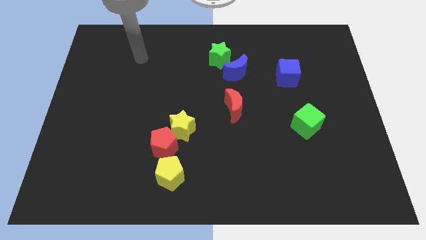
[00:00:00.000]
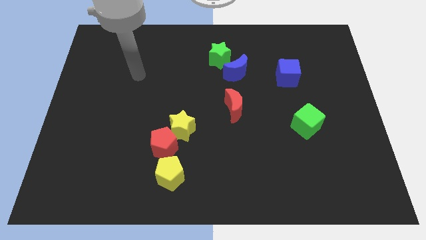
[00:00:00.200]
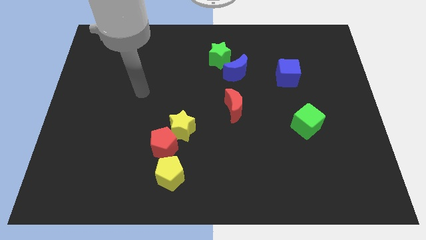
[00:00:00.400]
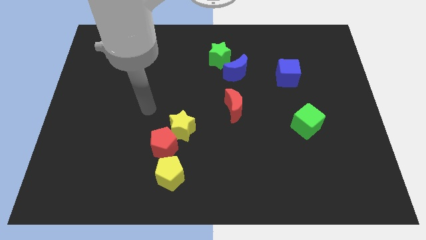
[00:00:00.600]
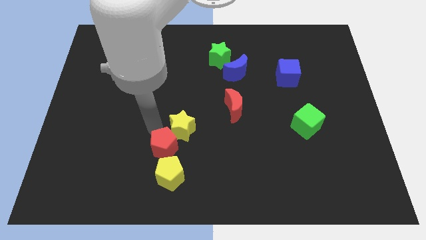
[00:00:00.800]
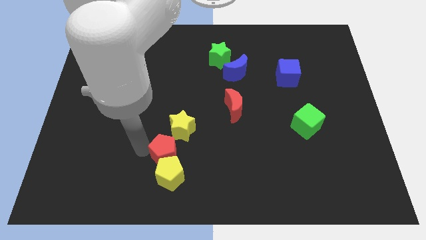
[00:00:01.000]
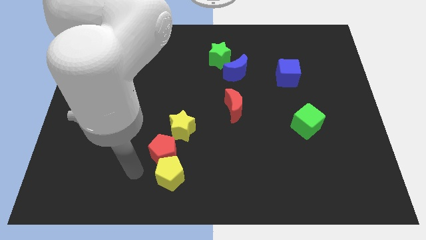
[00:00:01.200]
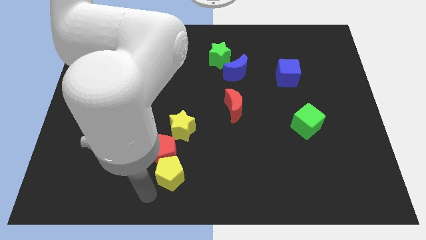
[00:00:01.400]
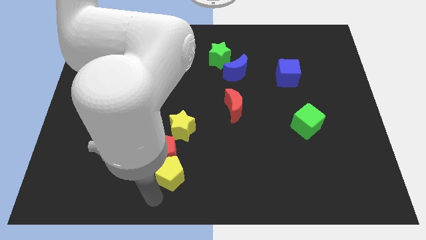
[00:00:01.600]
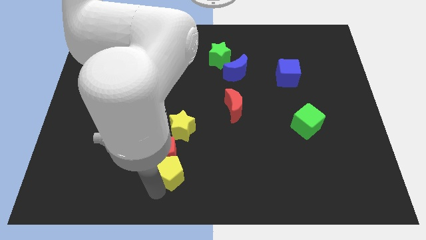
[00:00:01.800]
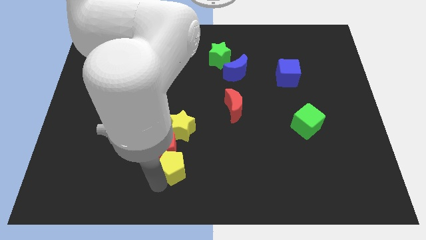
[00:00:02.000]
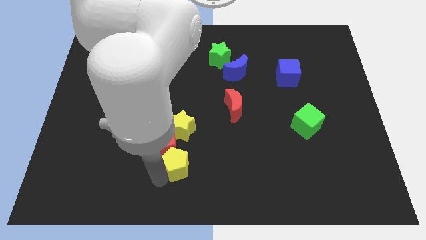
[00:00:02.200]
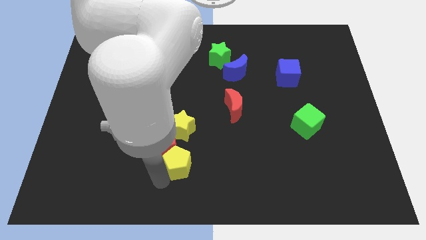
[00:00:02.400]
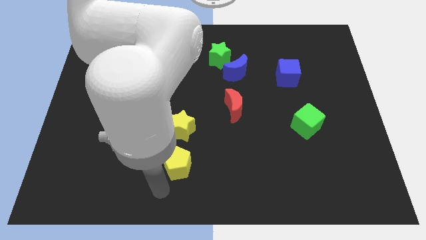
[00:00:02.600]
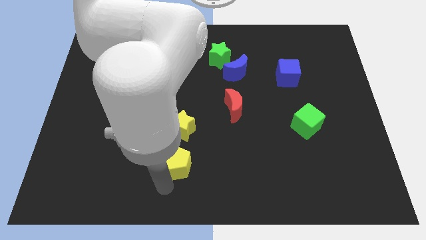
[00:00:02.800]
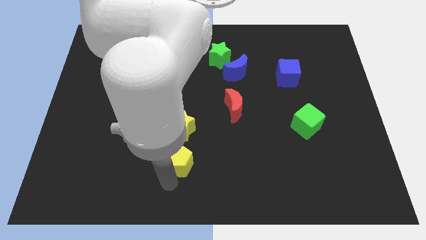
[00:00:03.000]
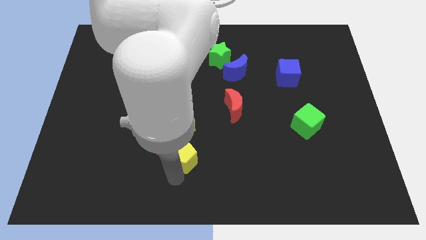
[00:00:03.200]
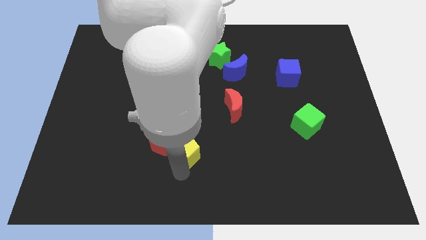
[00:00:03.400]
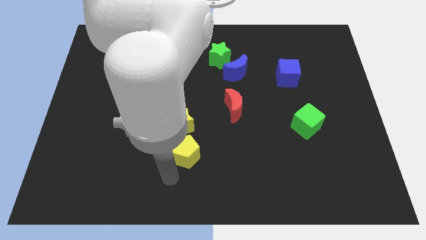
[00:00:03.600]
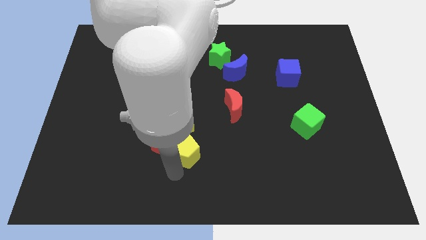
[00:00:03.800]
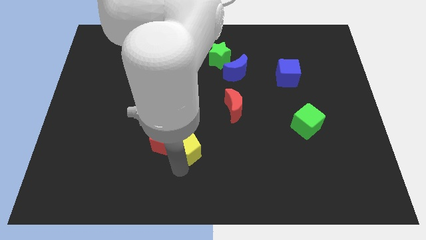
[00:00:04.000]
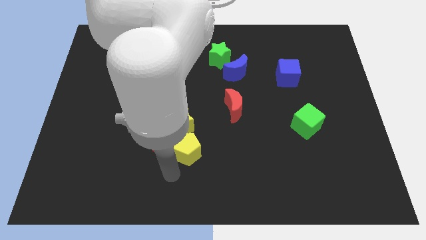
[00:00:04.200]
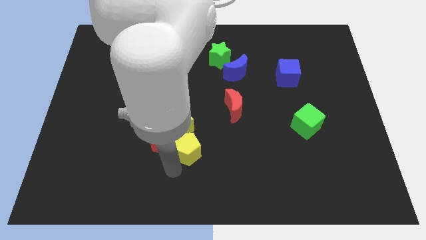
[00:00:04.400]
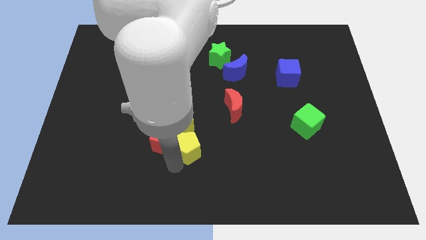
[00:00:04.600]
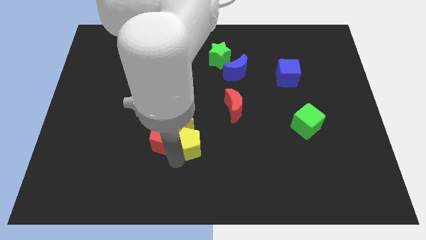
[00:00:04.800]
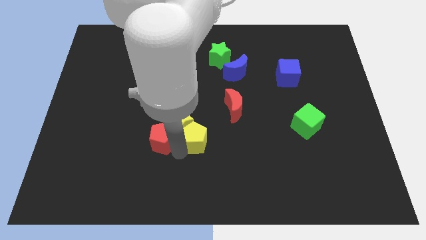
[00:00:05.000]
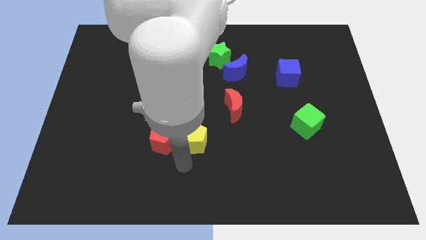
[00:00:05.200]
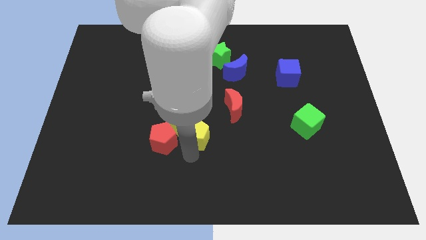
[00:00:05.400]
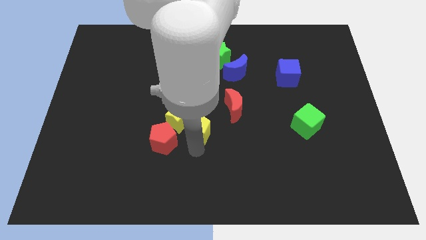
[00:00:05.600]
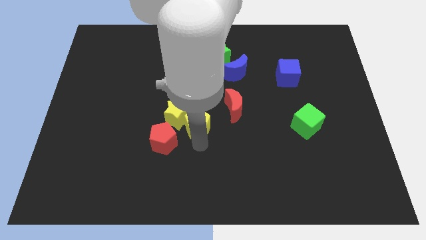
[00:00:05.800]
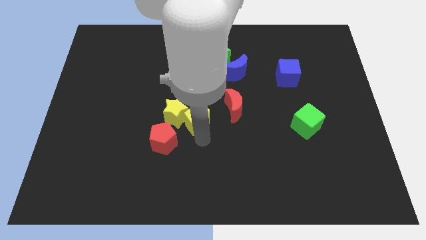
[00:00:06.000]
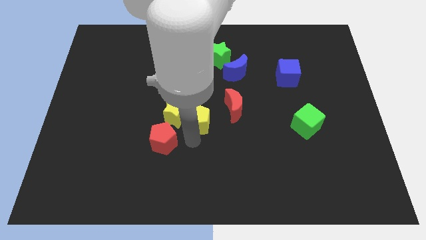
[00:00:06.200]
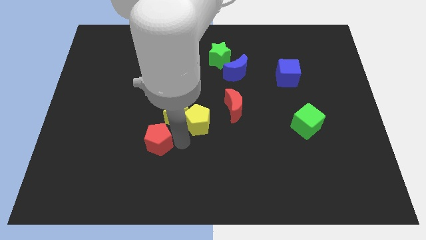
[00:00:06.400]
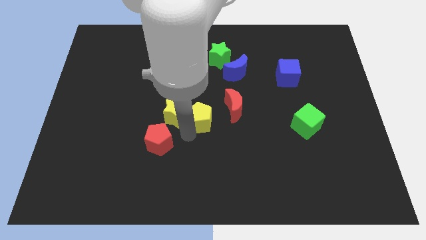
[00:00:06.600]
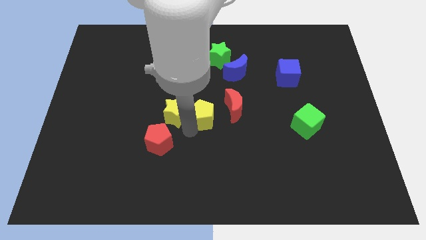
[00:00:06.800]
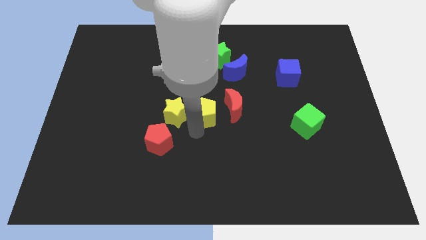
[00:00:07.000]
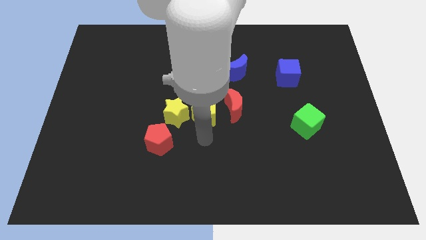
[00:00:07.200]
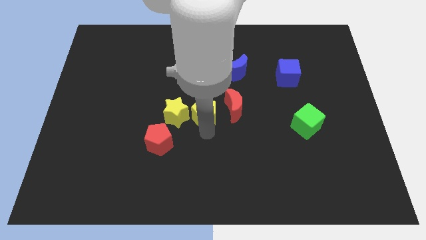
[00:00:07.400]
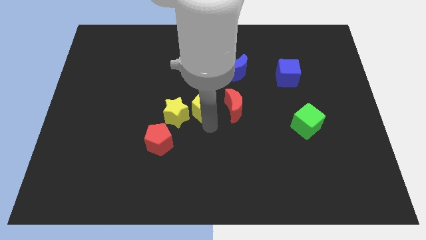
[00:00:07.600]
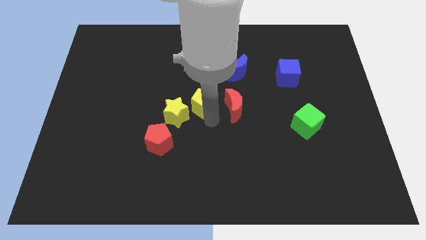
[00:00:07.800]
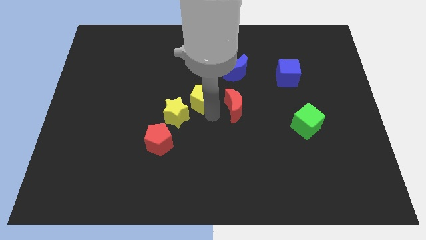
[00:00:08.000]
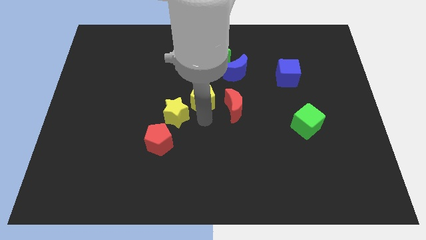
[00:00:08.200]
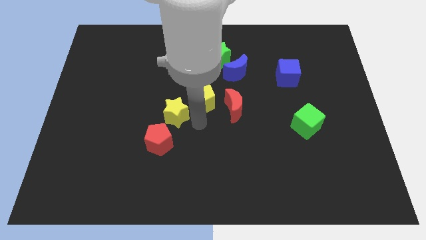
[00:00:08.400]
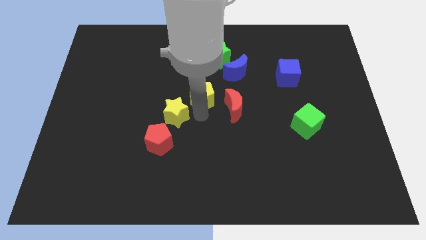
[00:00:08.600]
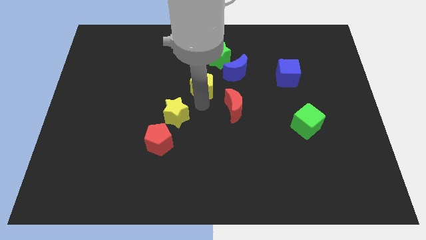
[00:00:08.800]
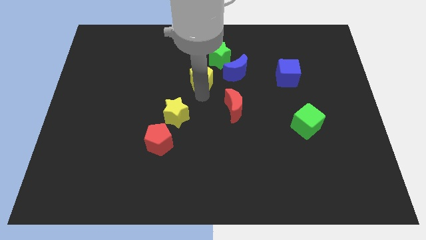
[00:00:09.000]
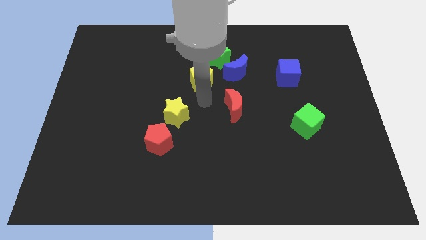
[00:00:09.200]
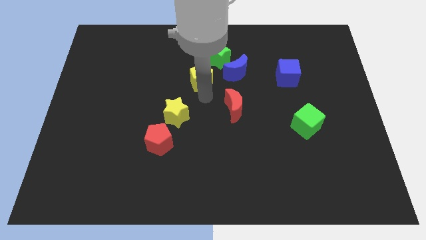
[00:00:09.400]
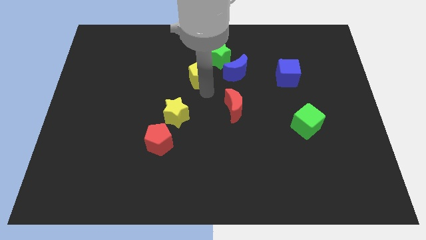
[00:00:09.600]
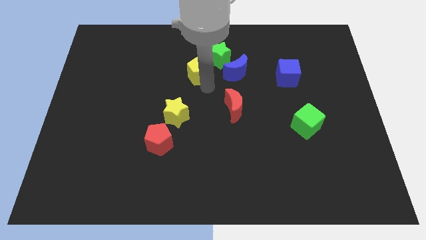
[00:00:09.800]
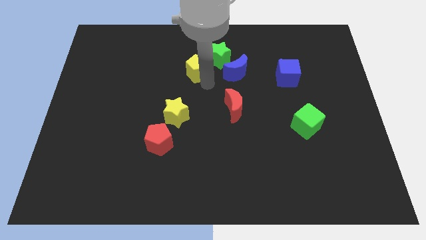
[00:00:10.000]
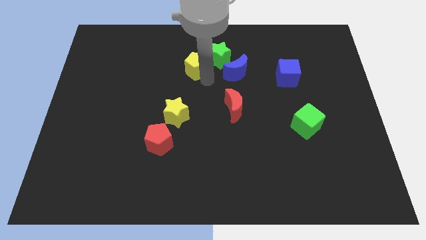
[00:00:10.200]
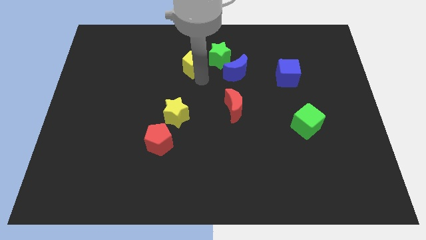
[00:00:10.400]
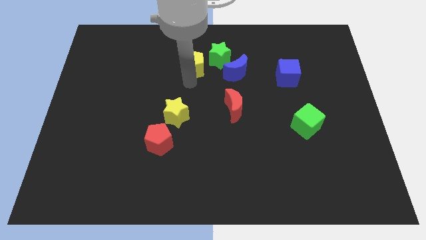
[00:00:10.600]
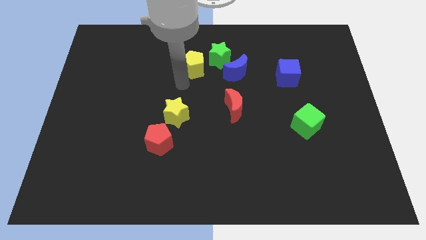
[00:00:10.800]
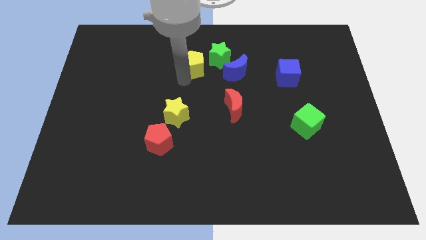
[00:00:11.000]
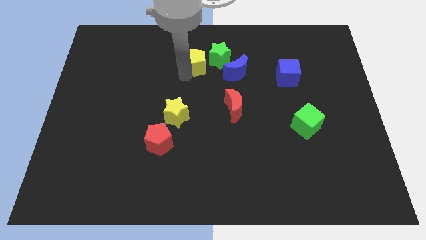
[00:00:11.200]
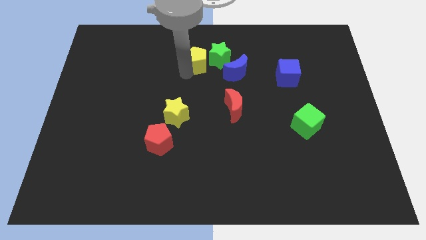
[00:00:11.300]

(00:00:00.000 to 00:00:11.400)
put the yellow pentagon to the top left of the blue moon

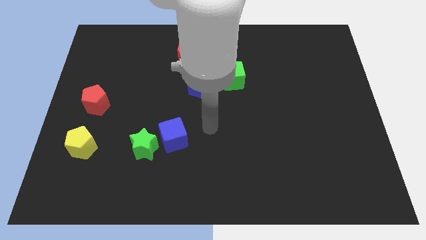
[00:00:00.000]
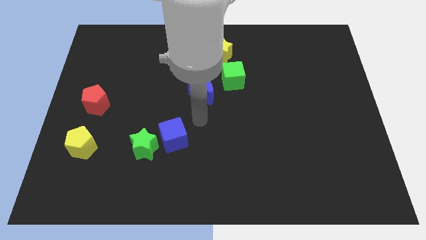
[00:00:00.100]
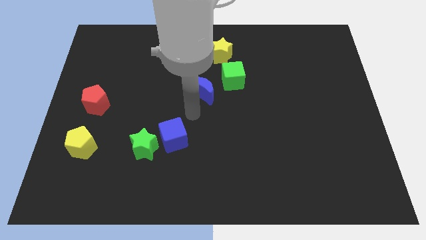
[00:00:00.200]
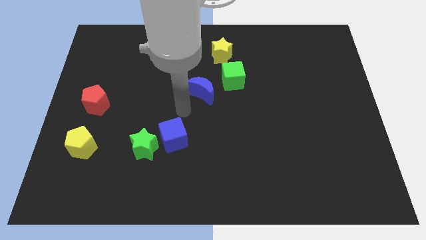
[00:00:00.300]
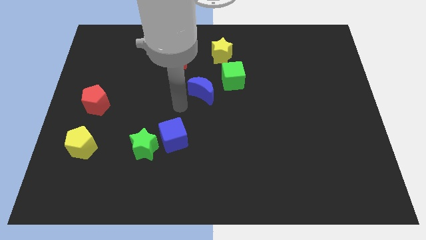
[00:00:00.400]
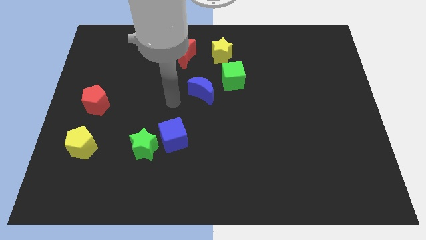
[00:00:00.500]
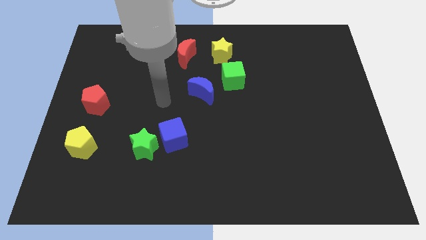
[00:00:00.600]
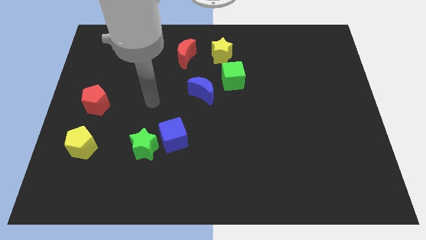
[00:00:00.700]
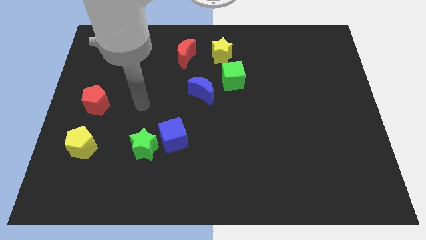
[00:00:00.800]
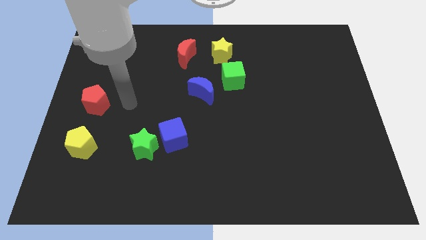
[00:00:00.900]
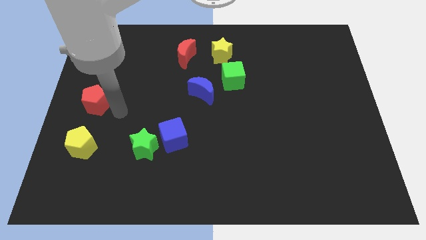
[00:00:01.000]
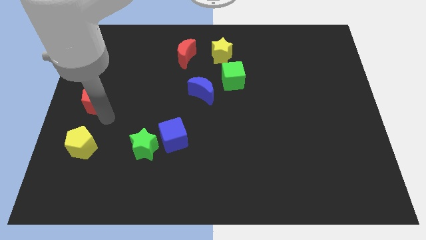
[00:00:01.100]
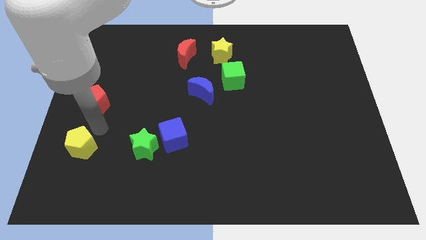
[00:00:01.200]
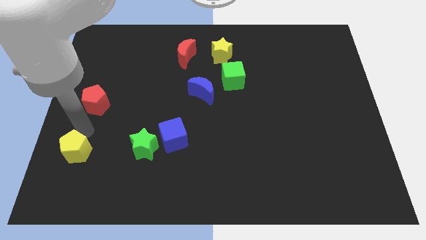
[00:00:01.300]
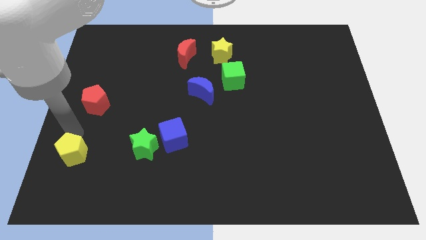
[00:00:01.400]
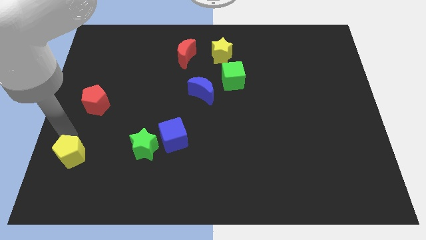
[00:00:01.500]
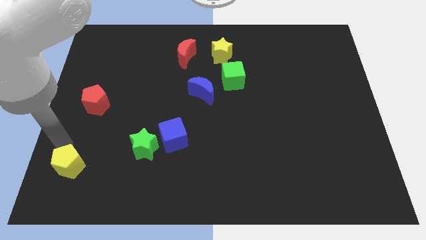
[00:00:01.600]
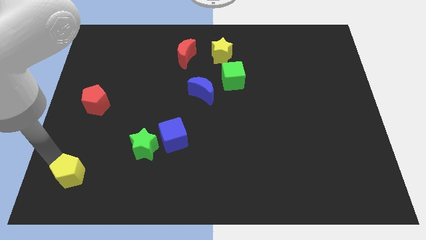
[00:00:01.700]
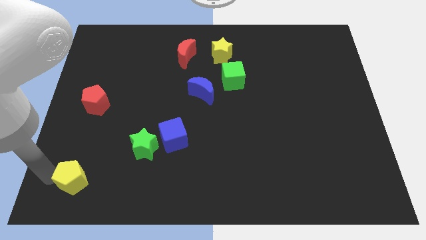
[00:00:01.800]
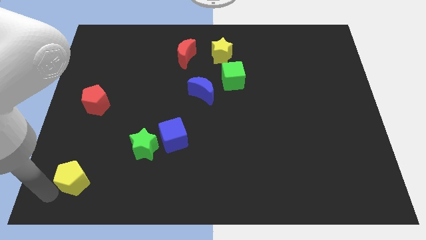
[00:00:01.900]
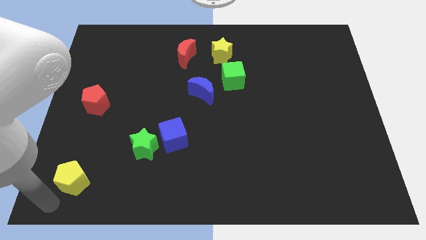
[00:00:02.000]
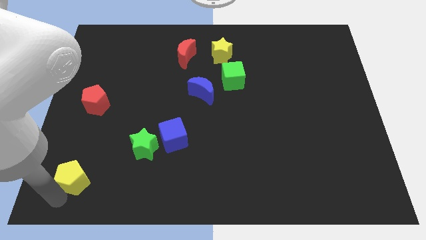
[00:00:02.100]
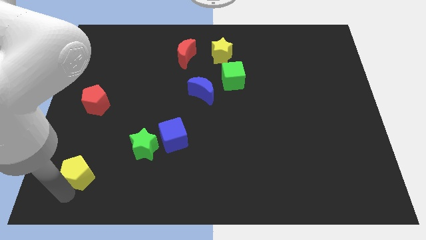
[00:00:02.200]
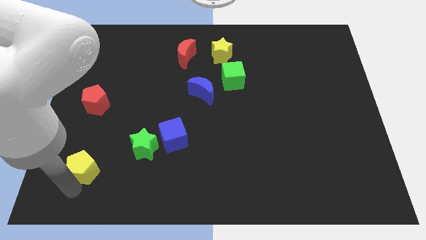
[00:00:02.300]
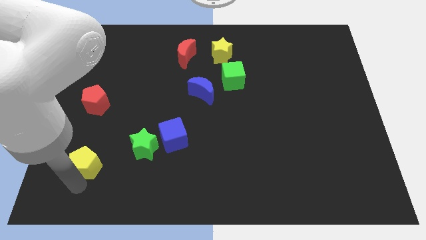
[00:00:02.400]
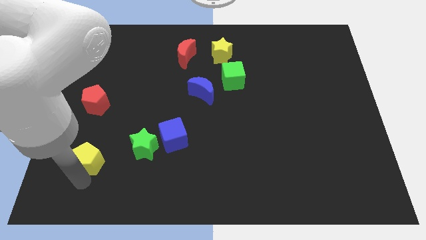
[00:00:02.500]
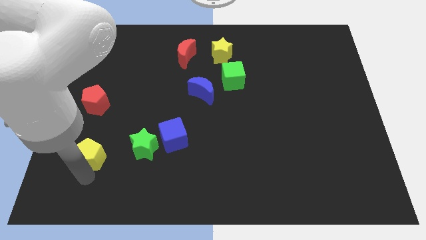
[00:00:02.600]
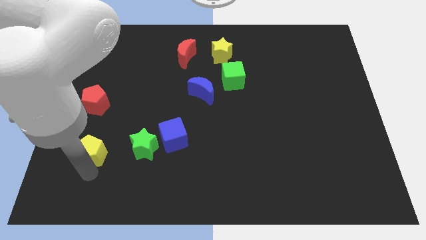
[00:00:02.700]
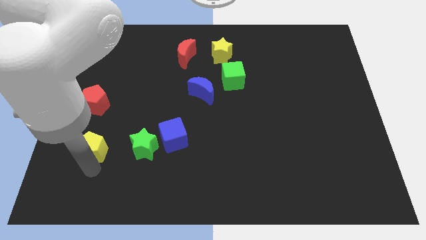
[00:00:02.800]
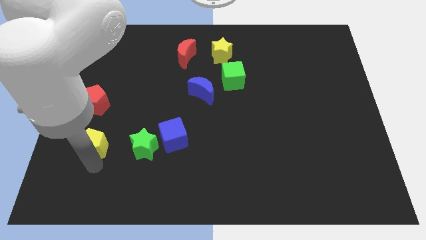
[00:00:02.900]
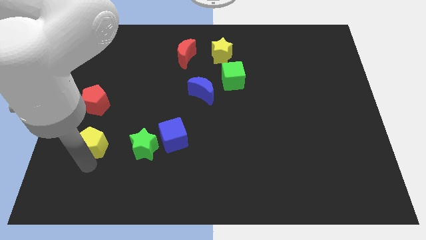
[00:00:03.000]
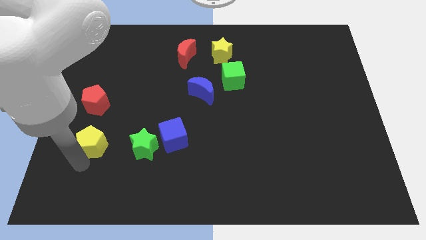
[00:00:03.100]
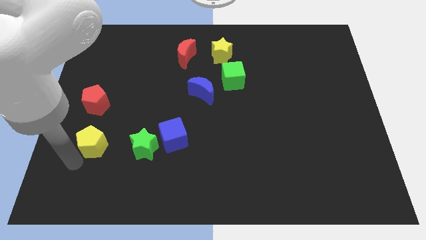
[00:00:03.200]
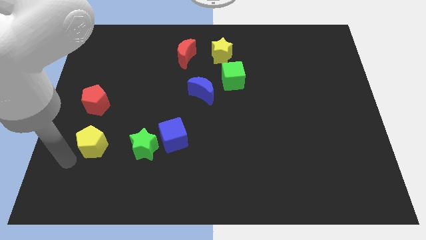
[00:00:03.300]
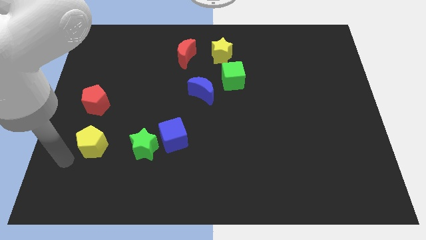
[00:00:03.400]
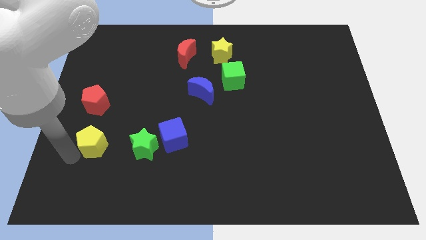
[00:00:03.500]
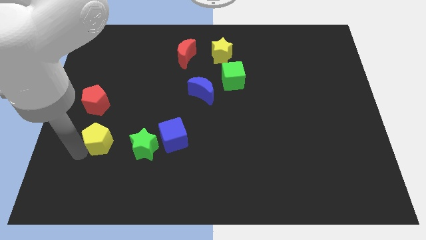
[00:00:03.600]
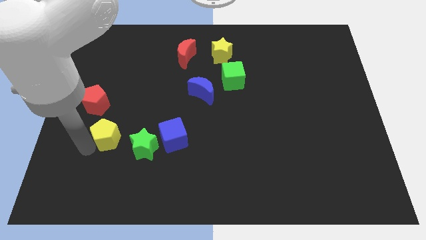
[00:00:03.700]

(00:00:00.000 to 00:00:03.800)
push the yellow pentagon diagonally up and to the left of the green star
